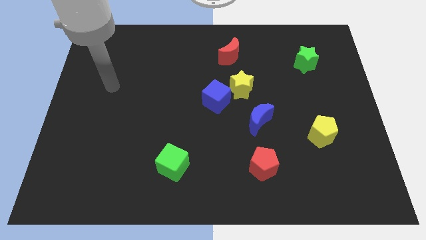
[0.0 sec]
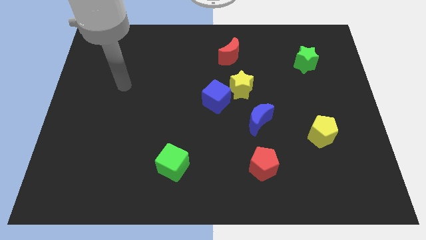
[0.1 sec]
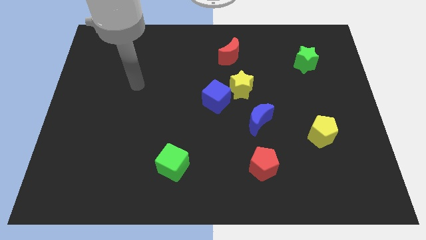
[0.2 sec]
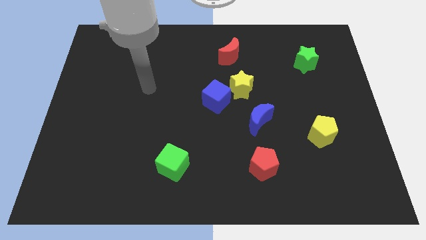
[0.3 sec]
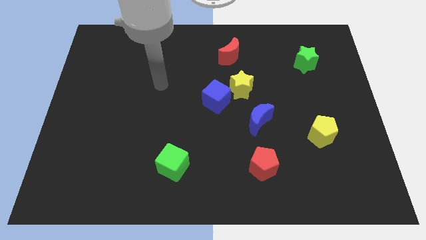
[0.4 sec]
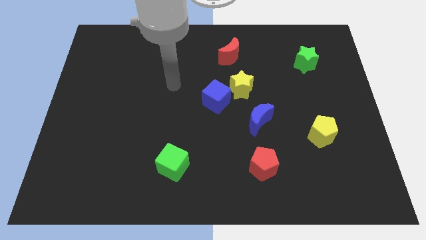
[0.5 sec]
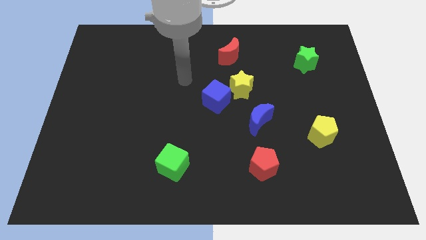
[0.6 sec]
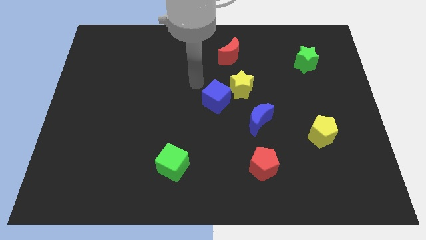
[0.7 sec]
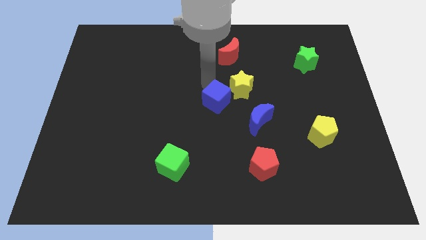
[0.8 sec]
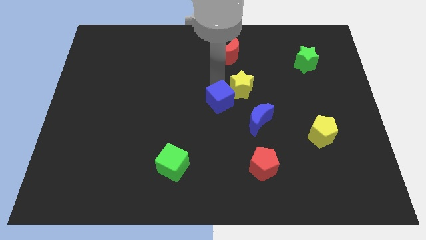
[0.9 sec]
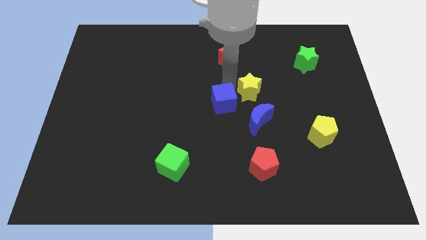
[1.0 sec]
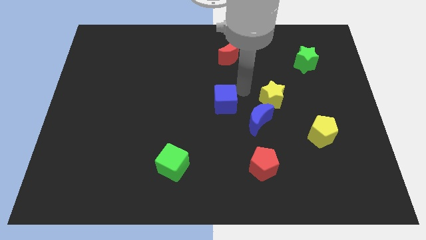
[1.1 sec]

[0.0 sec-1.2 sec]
pull the blue cube apart from the yellow star

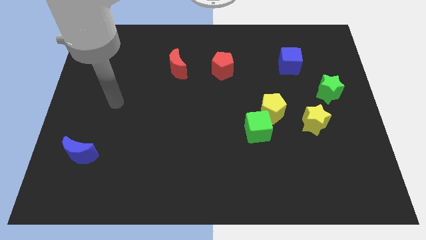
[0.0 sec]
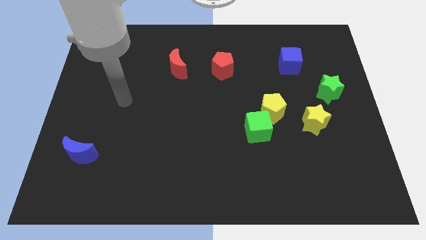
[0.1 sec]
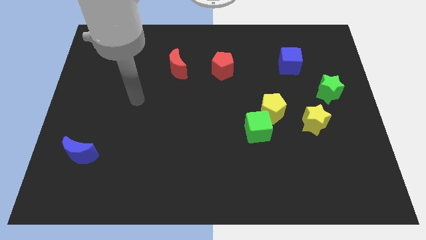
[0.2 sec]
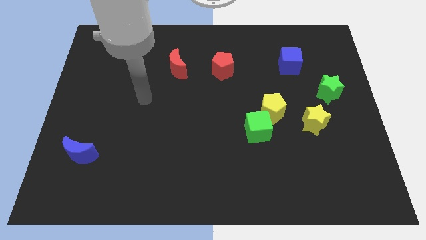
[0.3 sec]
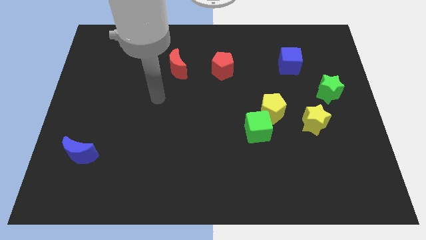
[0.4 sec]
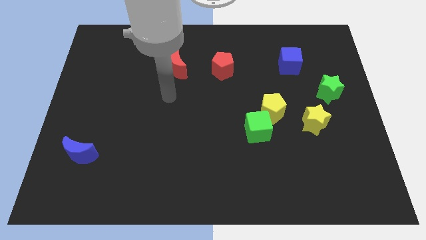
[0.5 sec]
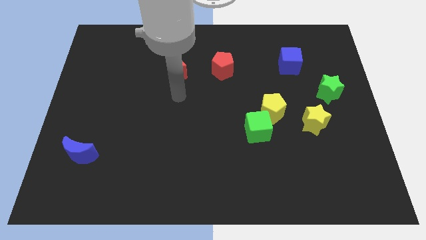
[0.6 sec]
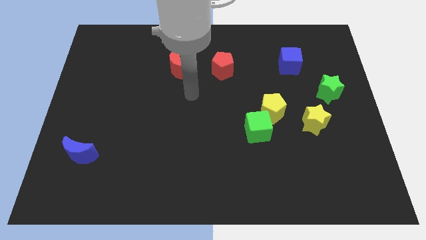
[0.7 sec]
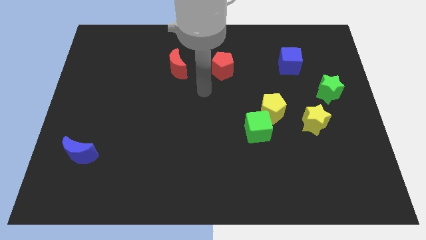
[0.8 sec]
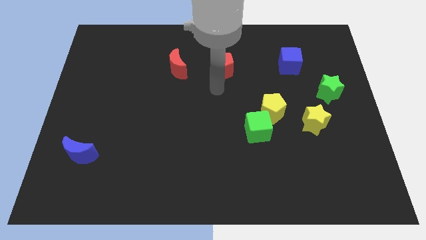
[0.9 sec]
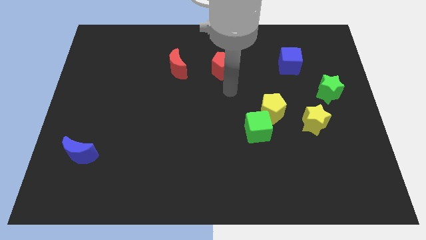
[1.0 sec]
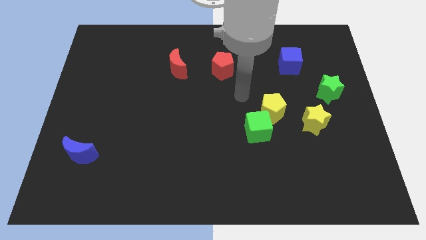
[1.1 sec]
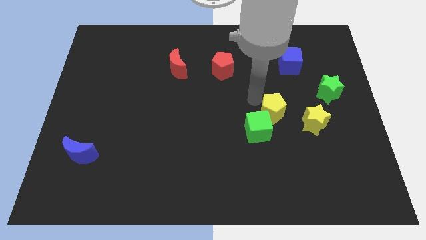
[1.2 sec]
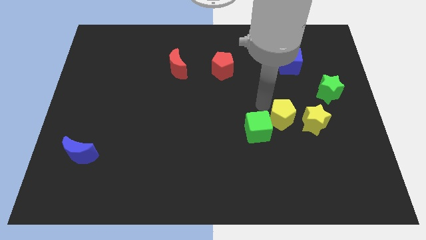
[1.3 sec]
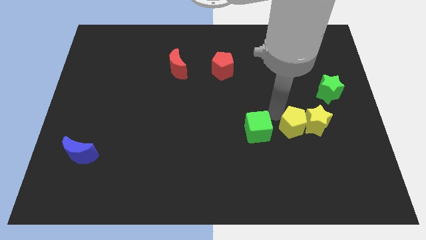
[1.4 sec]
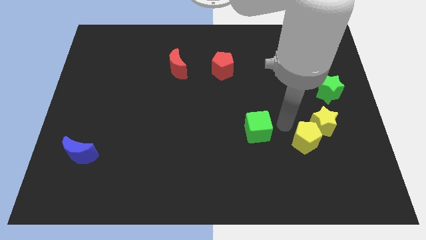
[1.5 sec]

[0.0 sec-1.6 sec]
separate the green cube from the yellow pentagon

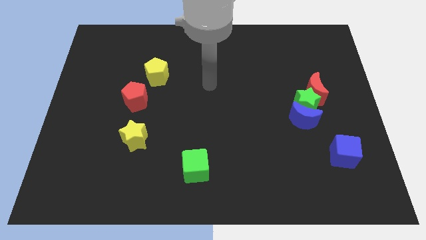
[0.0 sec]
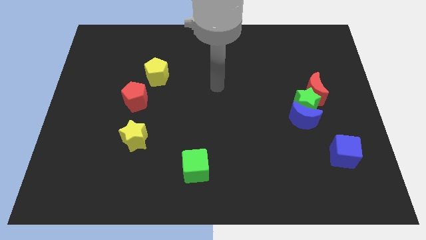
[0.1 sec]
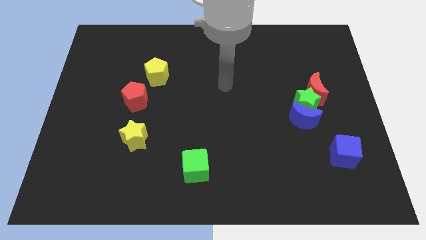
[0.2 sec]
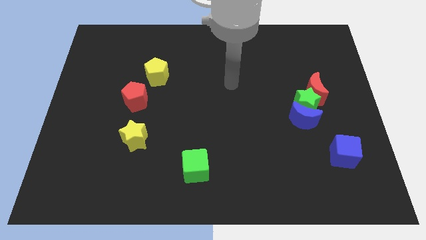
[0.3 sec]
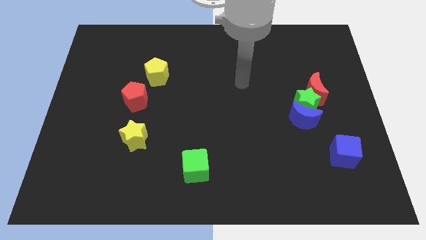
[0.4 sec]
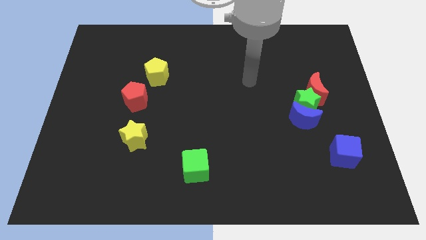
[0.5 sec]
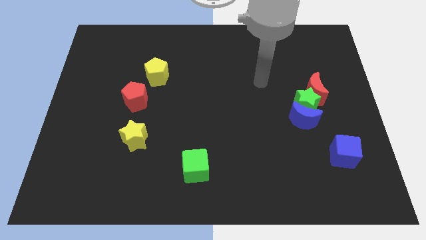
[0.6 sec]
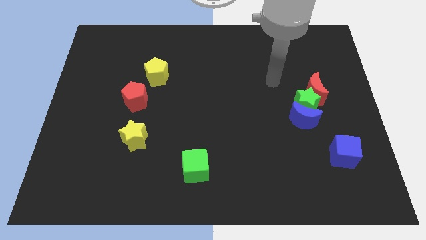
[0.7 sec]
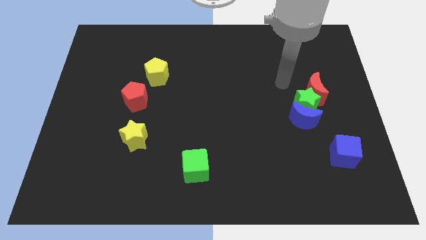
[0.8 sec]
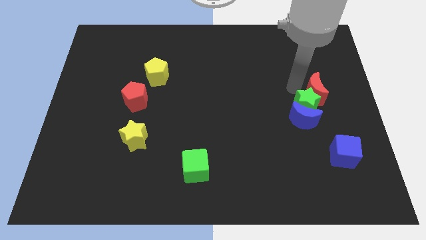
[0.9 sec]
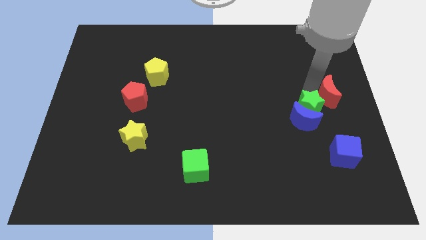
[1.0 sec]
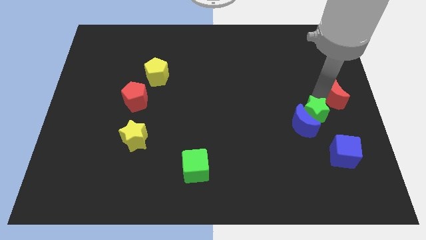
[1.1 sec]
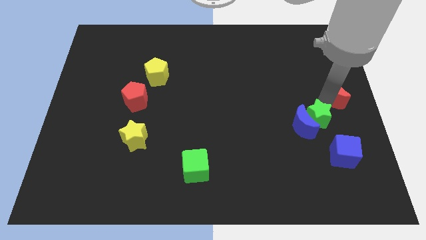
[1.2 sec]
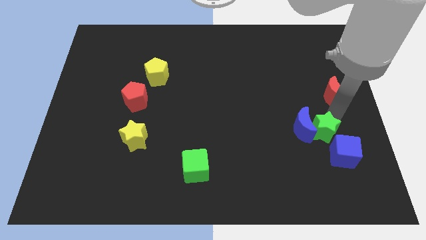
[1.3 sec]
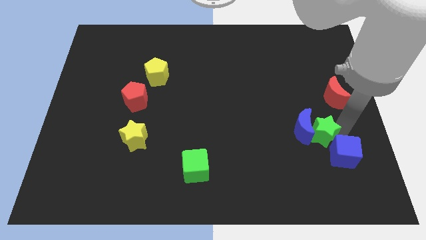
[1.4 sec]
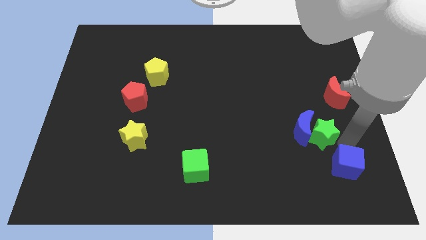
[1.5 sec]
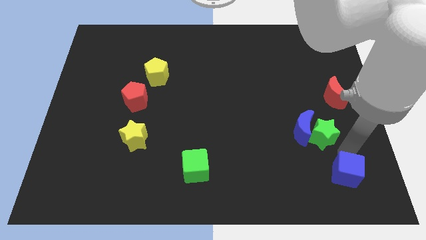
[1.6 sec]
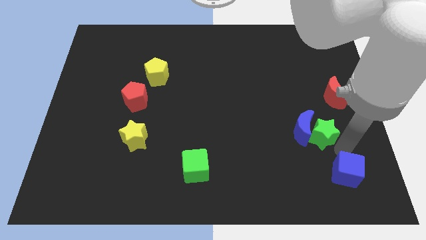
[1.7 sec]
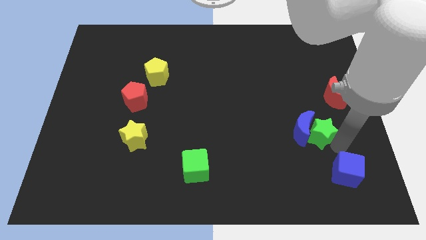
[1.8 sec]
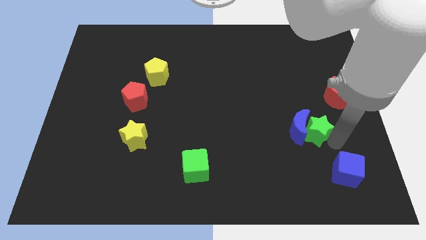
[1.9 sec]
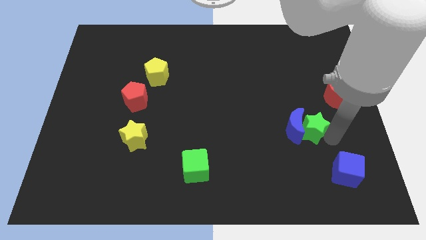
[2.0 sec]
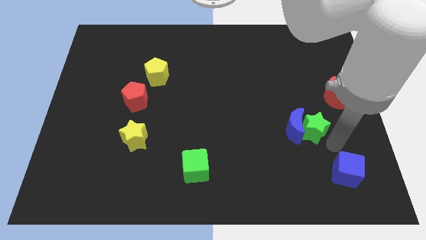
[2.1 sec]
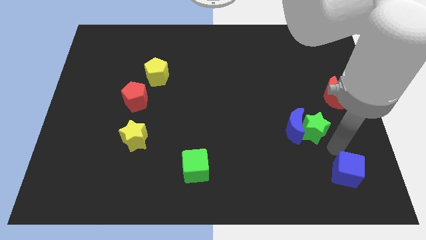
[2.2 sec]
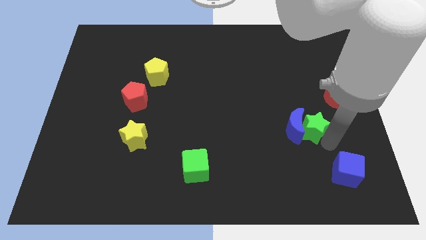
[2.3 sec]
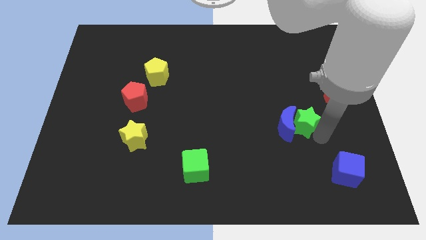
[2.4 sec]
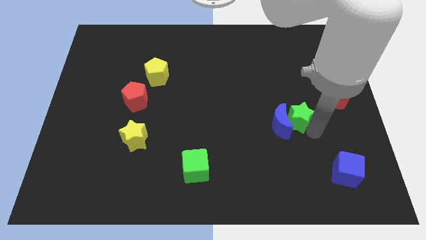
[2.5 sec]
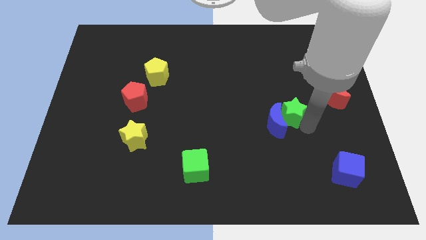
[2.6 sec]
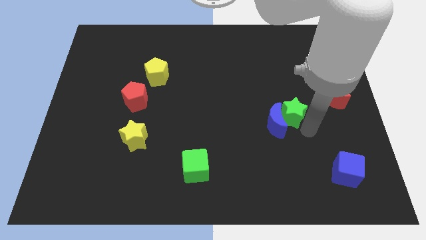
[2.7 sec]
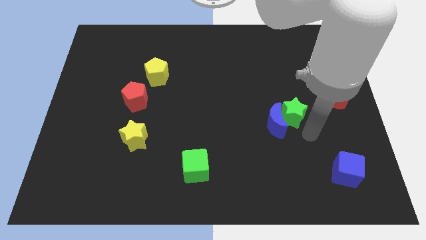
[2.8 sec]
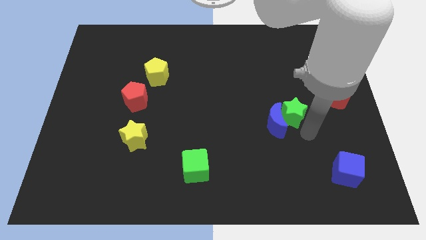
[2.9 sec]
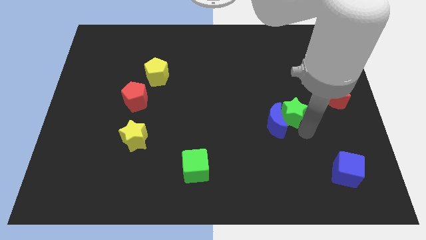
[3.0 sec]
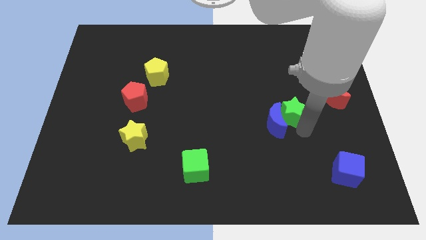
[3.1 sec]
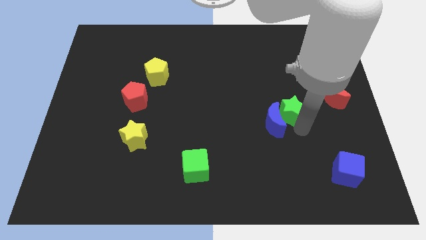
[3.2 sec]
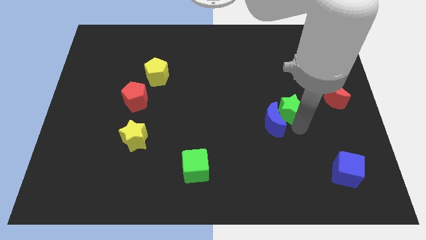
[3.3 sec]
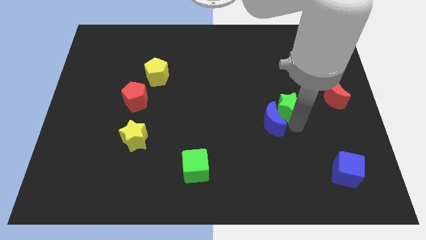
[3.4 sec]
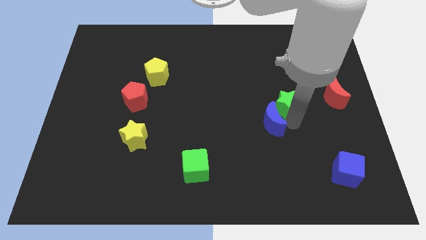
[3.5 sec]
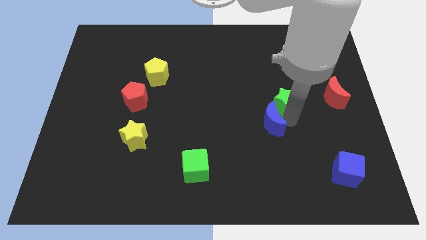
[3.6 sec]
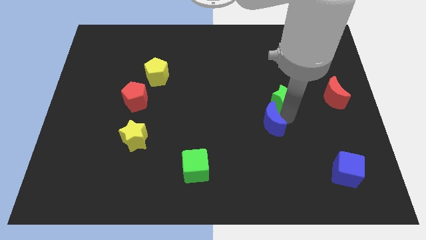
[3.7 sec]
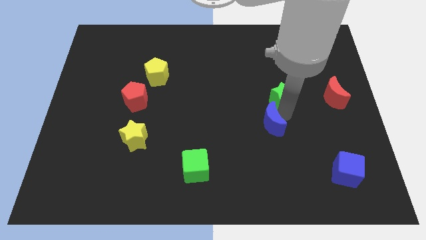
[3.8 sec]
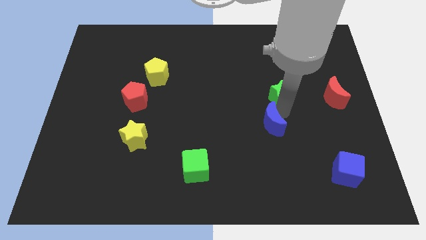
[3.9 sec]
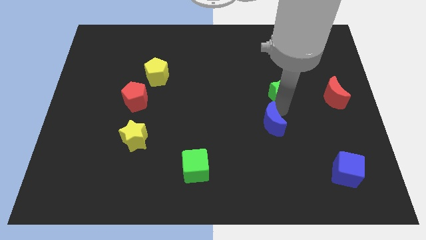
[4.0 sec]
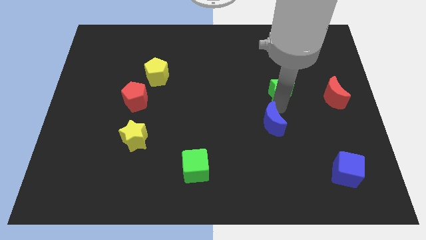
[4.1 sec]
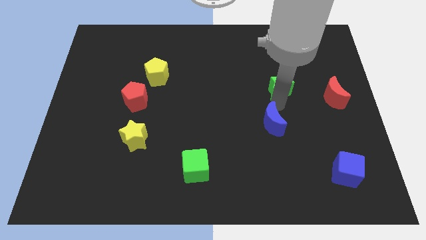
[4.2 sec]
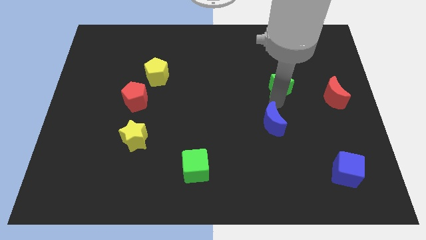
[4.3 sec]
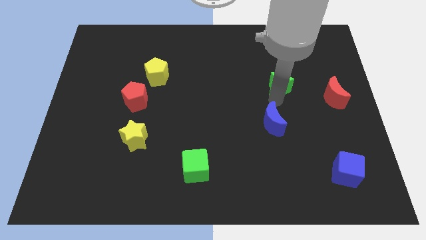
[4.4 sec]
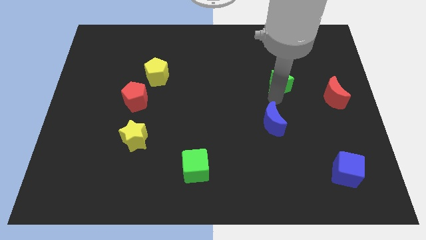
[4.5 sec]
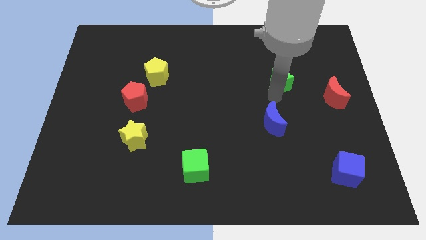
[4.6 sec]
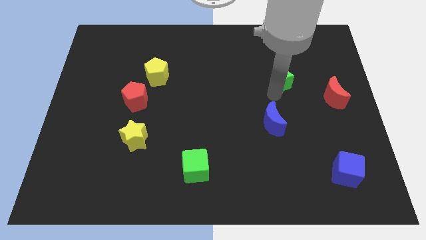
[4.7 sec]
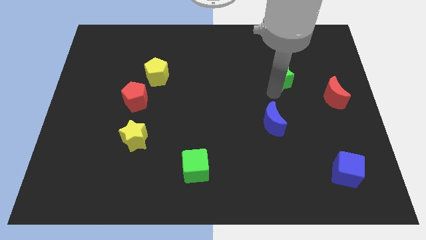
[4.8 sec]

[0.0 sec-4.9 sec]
separate the green star from the blue moon and red moon

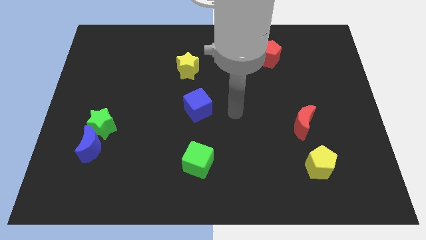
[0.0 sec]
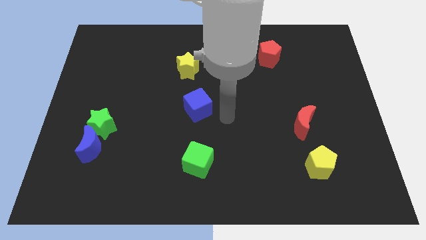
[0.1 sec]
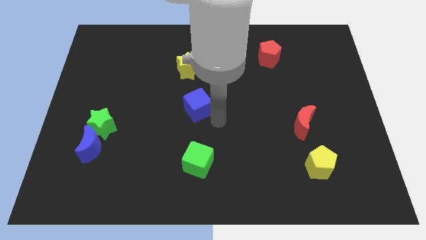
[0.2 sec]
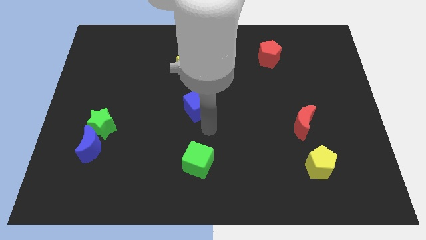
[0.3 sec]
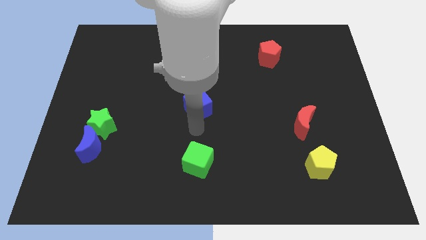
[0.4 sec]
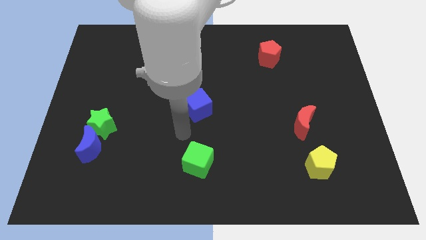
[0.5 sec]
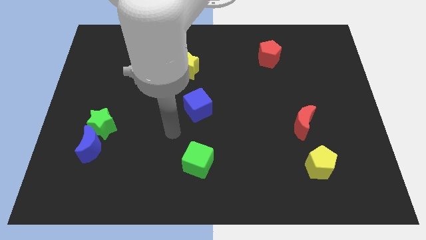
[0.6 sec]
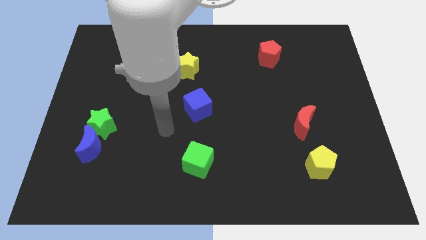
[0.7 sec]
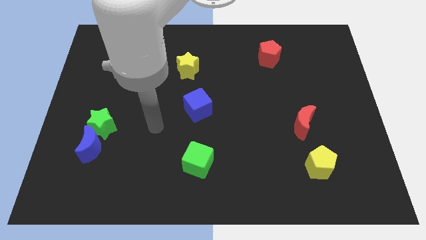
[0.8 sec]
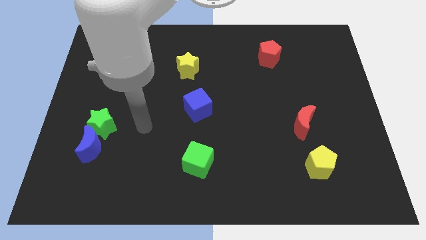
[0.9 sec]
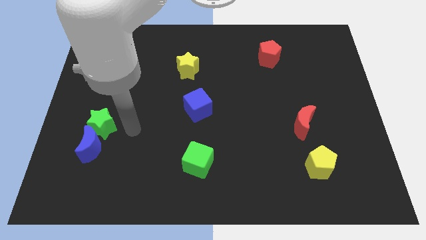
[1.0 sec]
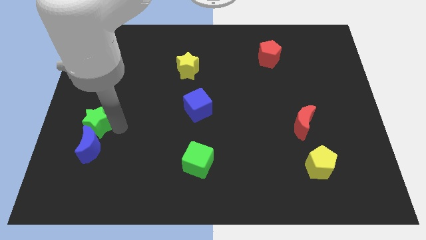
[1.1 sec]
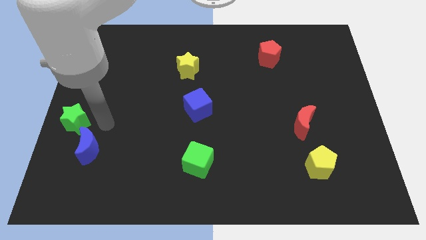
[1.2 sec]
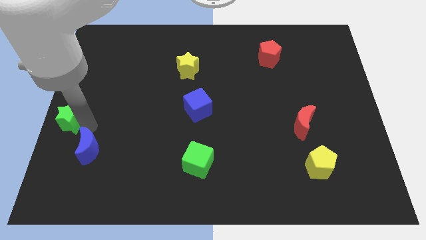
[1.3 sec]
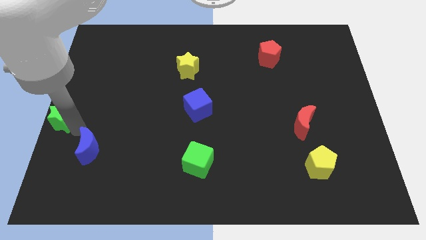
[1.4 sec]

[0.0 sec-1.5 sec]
separate the blue moon from the green star
